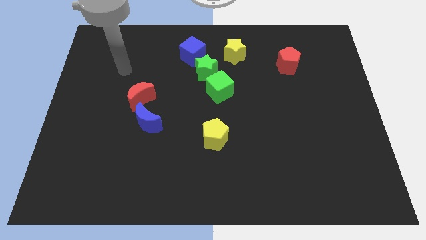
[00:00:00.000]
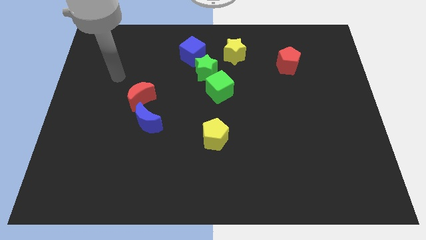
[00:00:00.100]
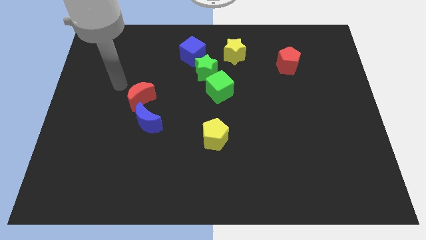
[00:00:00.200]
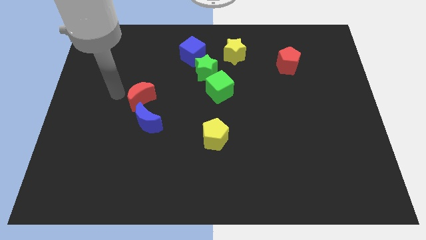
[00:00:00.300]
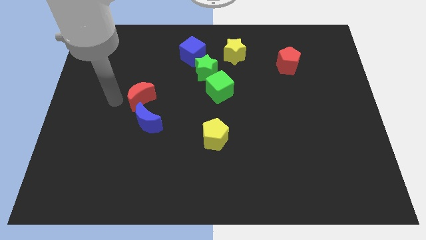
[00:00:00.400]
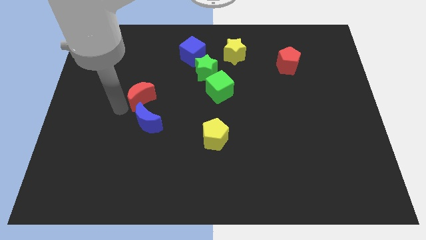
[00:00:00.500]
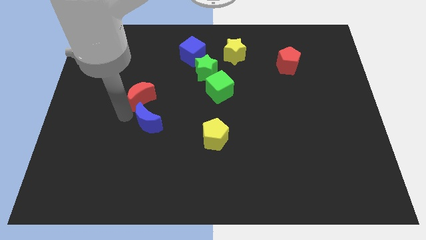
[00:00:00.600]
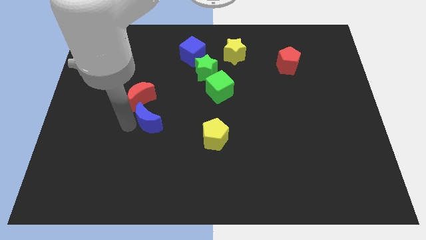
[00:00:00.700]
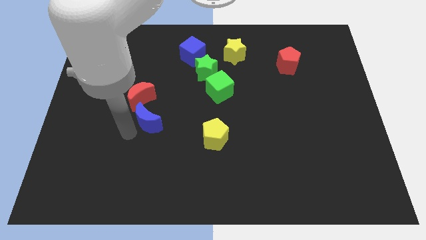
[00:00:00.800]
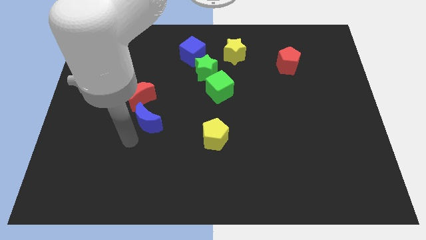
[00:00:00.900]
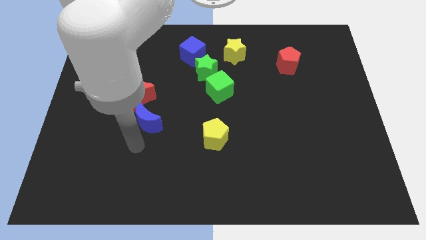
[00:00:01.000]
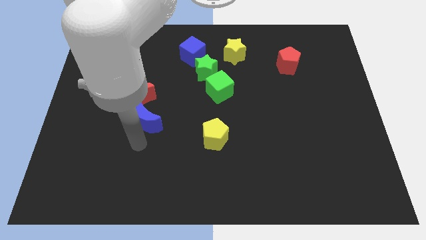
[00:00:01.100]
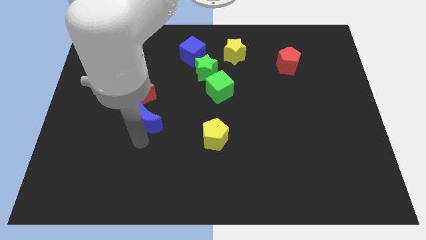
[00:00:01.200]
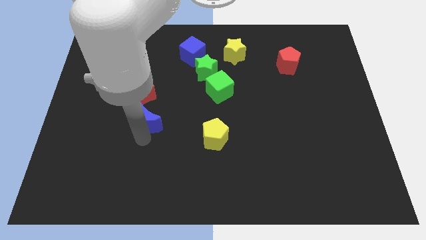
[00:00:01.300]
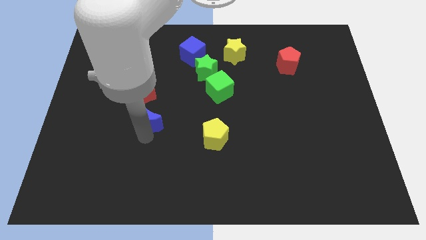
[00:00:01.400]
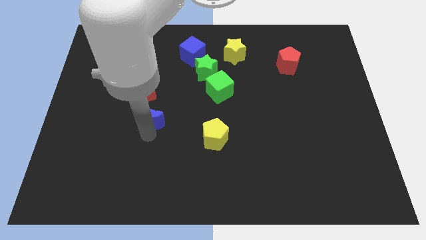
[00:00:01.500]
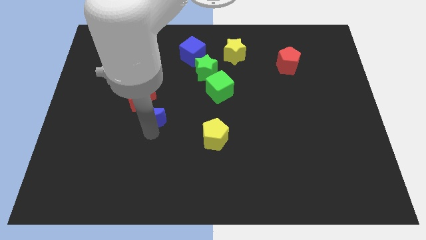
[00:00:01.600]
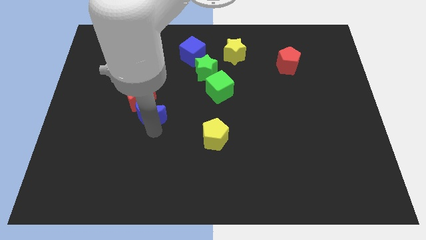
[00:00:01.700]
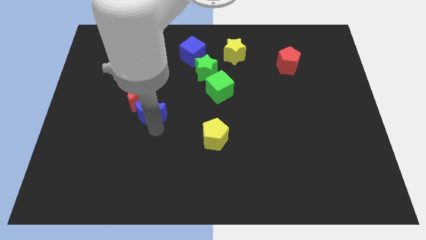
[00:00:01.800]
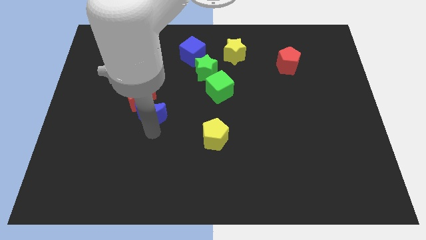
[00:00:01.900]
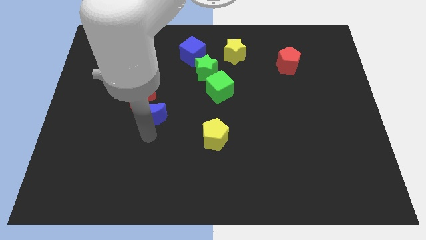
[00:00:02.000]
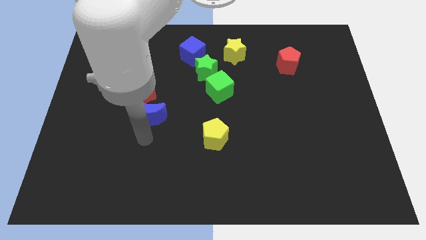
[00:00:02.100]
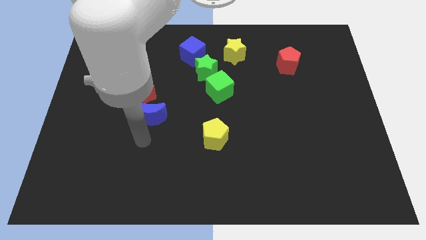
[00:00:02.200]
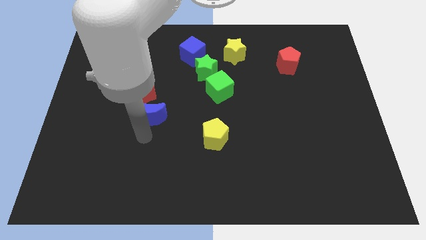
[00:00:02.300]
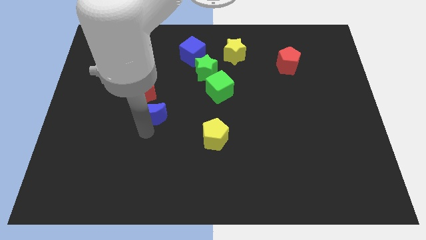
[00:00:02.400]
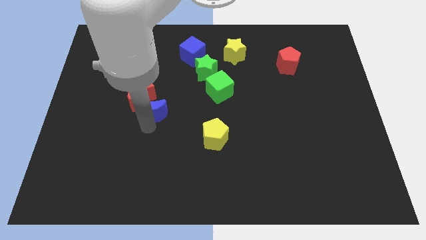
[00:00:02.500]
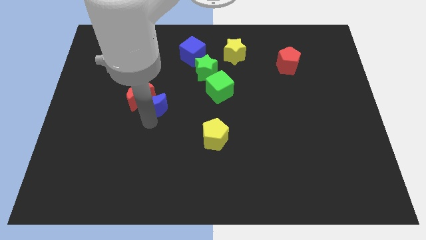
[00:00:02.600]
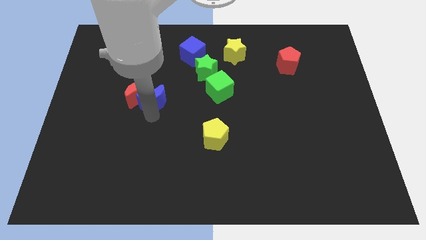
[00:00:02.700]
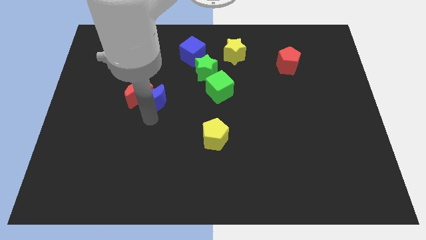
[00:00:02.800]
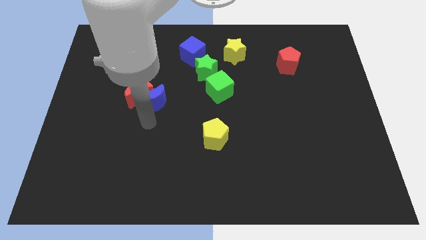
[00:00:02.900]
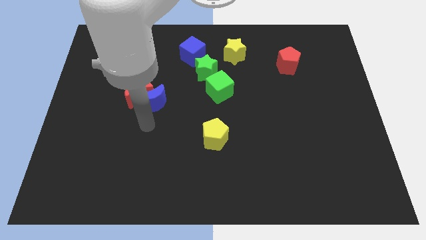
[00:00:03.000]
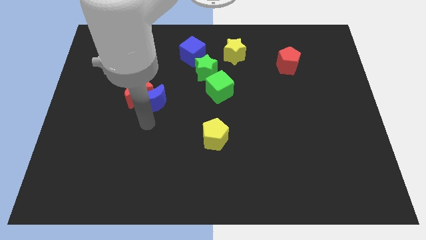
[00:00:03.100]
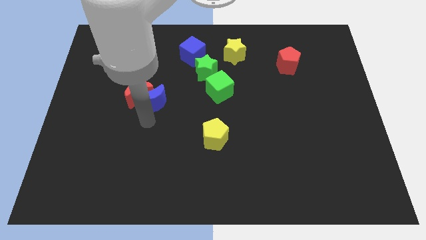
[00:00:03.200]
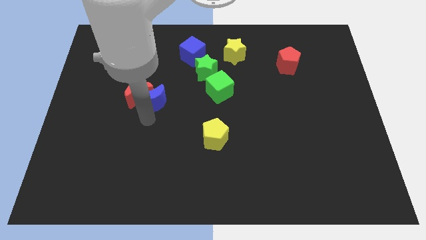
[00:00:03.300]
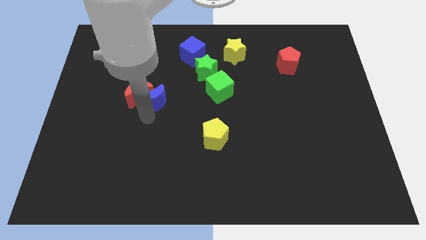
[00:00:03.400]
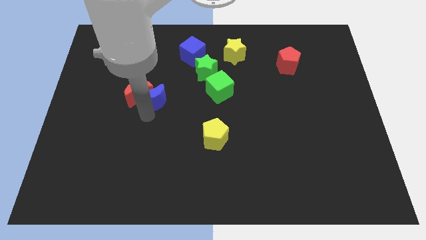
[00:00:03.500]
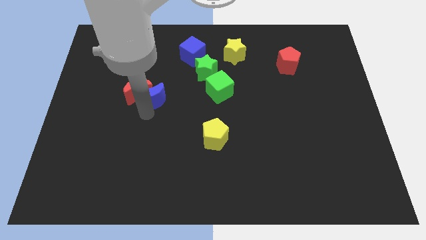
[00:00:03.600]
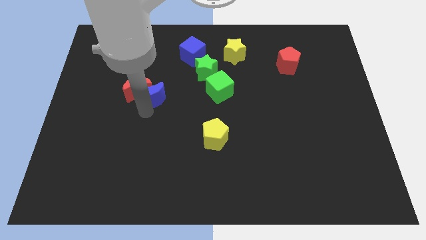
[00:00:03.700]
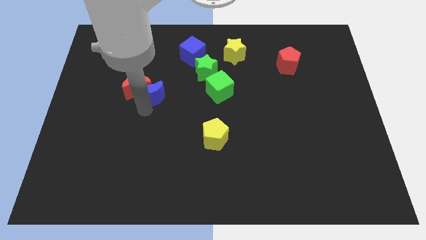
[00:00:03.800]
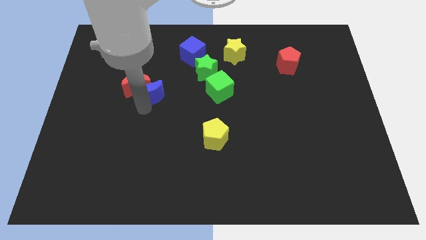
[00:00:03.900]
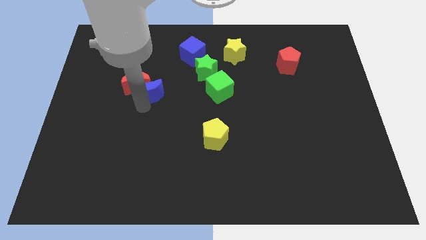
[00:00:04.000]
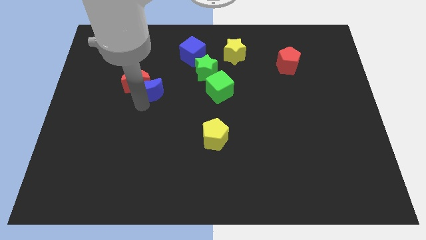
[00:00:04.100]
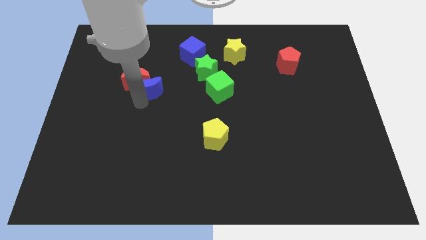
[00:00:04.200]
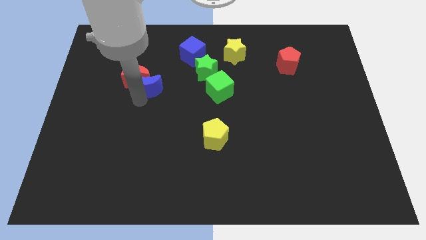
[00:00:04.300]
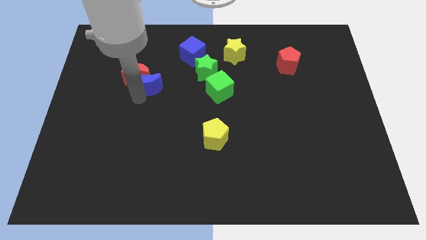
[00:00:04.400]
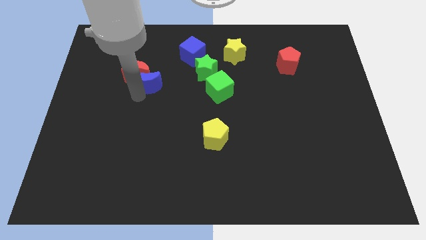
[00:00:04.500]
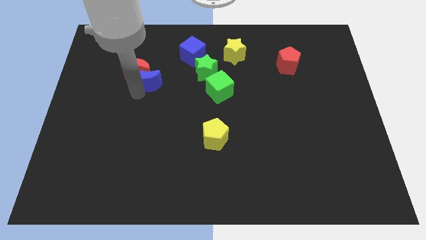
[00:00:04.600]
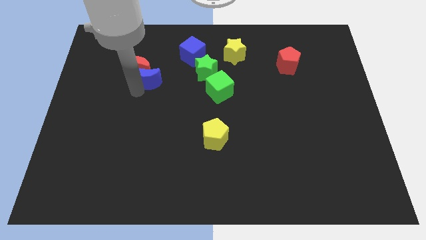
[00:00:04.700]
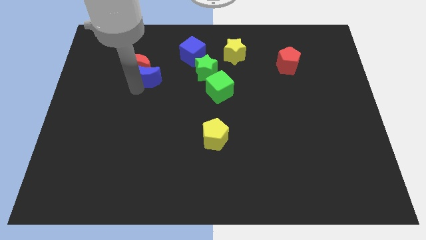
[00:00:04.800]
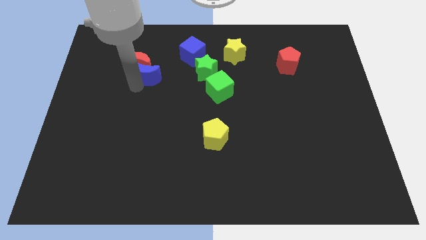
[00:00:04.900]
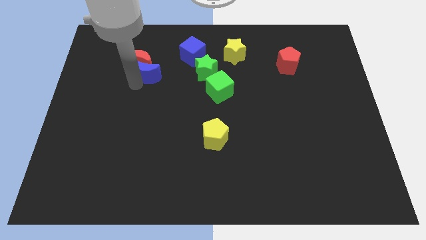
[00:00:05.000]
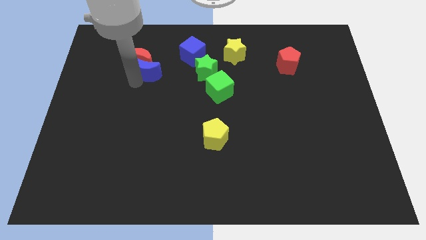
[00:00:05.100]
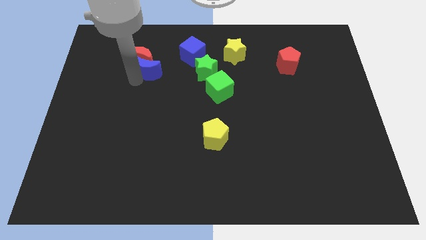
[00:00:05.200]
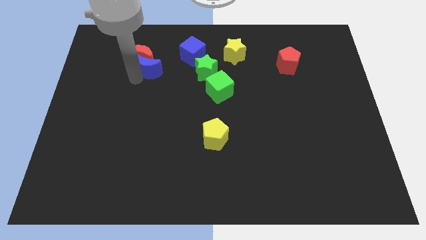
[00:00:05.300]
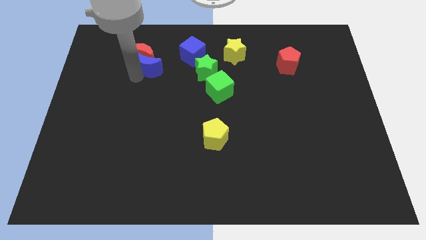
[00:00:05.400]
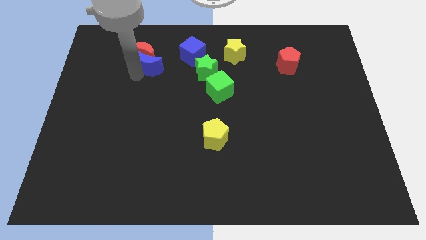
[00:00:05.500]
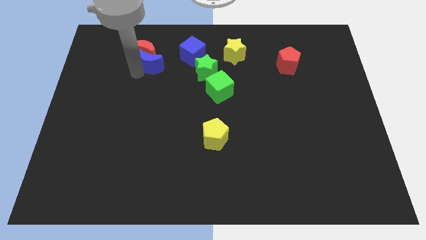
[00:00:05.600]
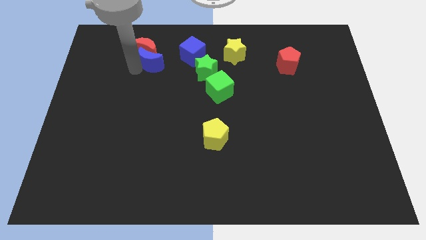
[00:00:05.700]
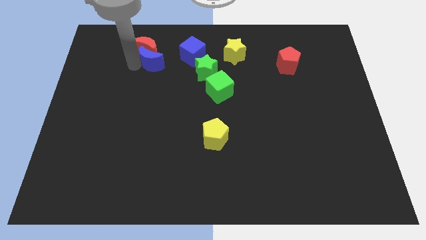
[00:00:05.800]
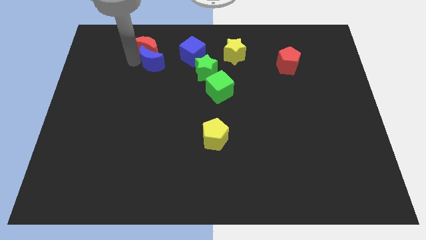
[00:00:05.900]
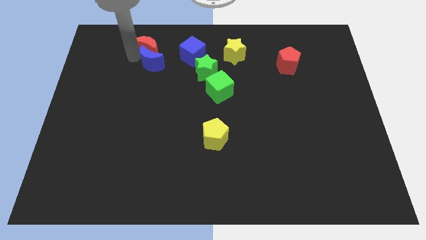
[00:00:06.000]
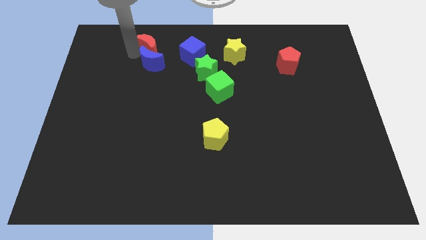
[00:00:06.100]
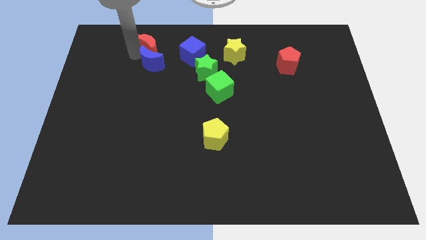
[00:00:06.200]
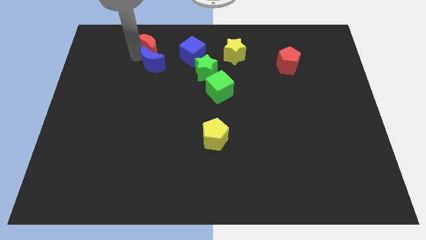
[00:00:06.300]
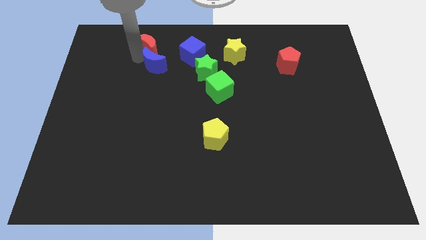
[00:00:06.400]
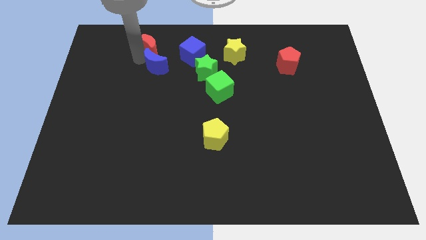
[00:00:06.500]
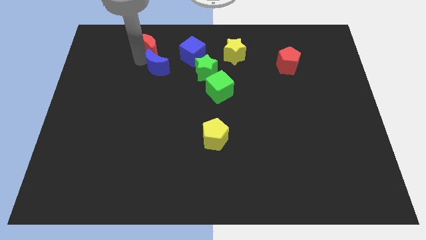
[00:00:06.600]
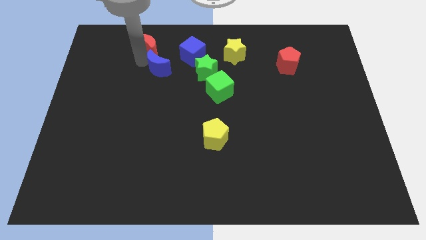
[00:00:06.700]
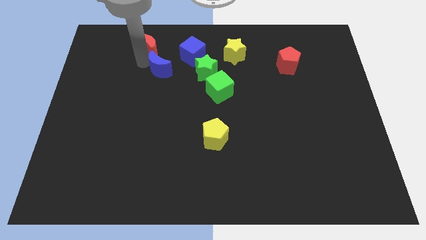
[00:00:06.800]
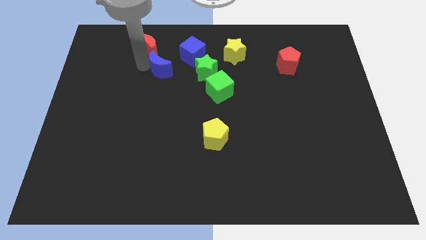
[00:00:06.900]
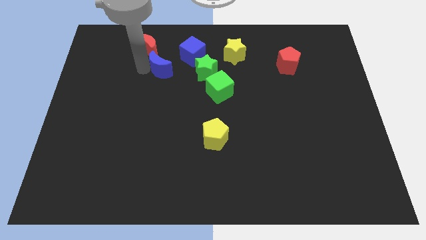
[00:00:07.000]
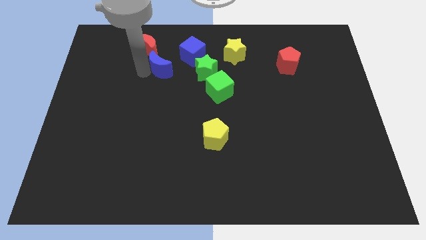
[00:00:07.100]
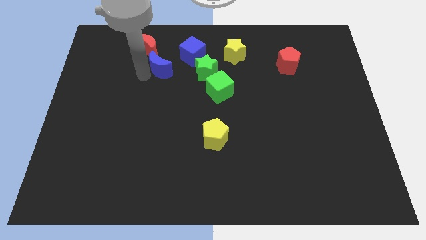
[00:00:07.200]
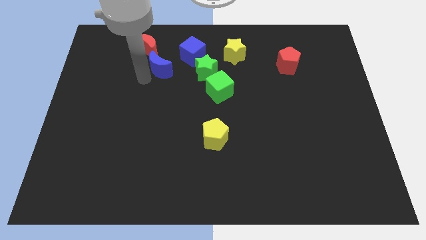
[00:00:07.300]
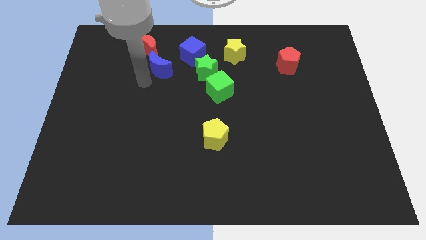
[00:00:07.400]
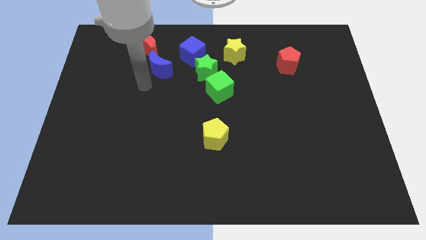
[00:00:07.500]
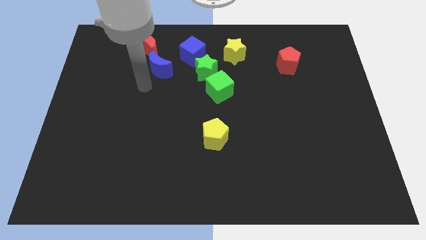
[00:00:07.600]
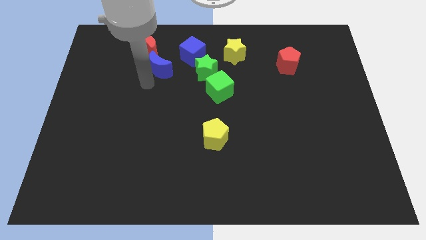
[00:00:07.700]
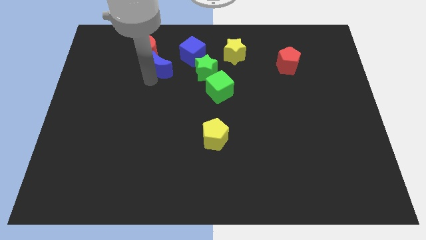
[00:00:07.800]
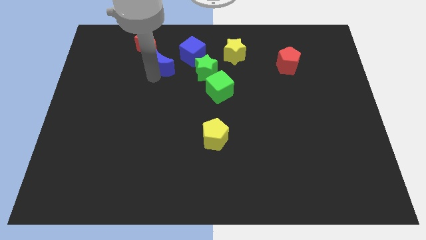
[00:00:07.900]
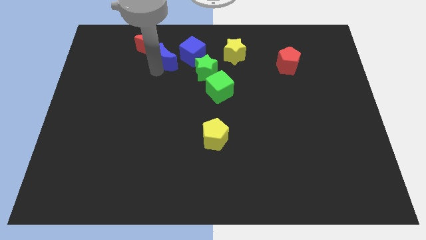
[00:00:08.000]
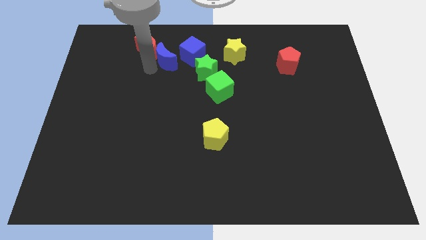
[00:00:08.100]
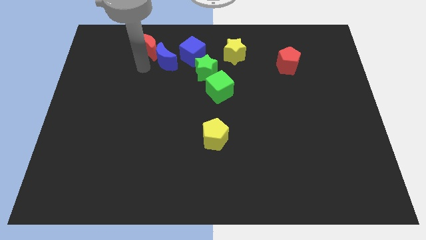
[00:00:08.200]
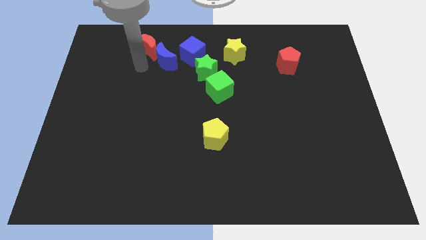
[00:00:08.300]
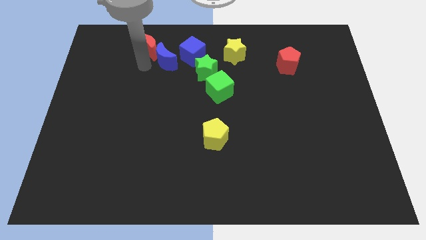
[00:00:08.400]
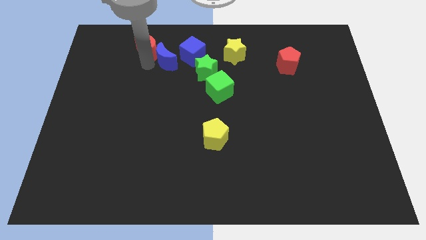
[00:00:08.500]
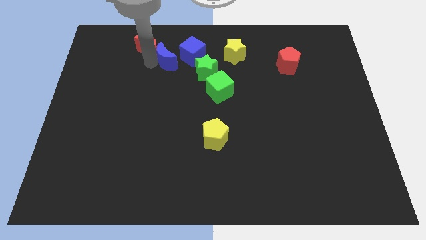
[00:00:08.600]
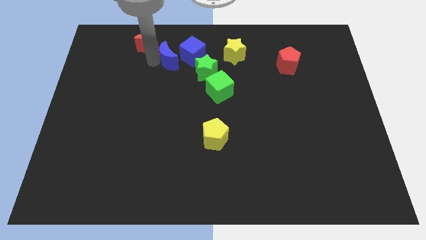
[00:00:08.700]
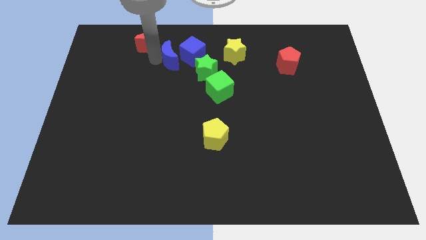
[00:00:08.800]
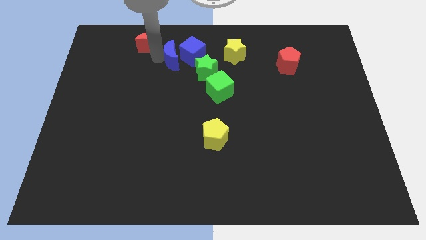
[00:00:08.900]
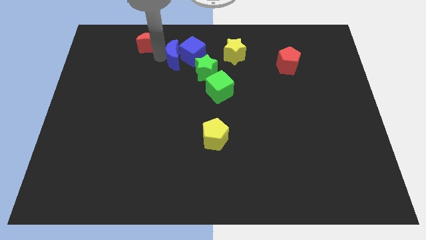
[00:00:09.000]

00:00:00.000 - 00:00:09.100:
put the blue moon to the left side of the yellow star
